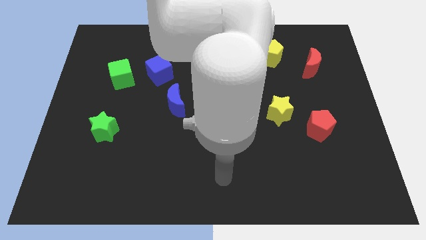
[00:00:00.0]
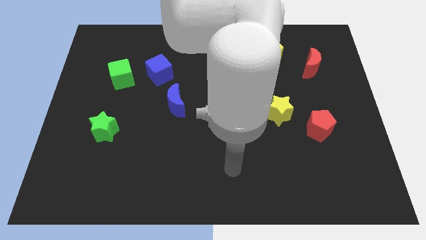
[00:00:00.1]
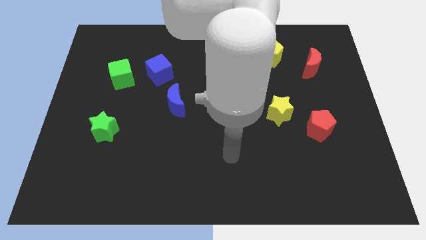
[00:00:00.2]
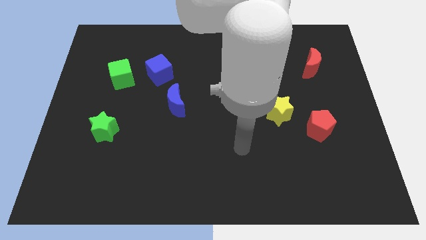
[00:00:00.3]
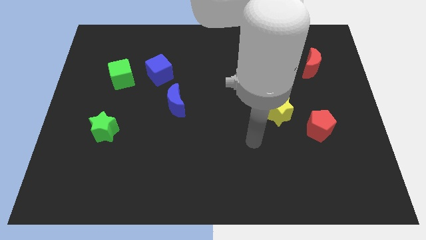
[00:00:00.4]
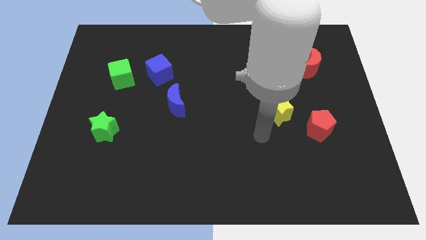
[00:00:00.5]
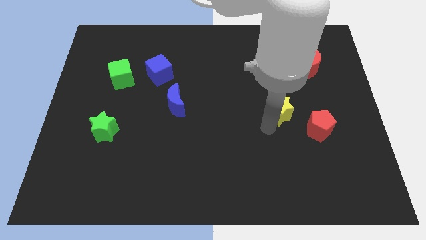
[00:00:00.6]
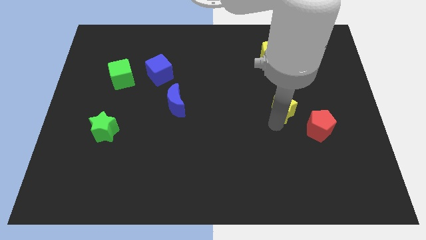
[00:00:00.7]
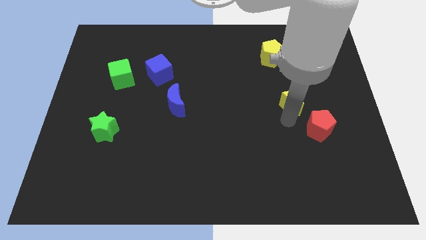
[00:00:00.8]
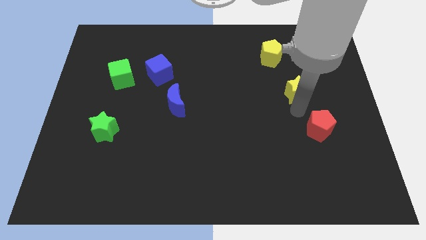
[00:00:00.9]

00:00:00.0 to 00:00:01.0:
pull the red pentagon apart from the yellow star

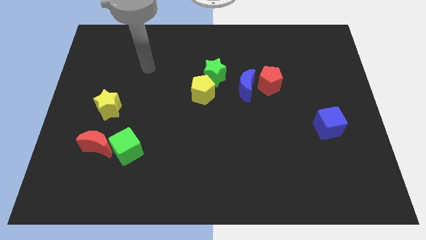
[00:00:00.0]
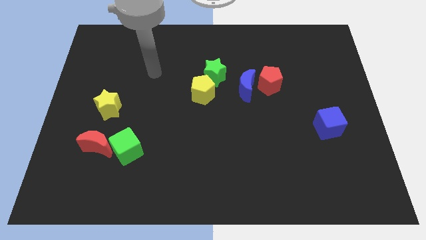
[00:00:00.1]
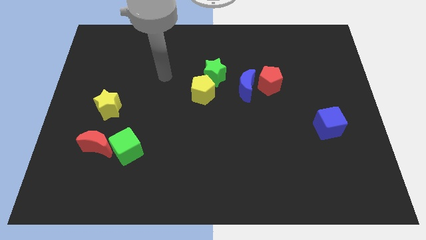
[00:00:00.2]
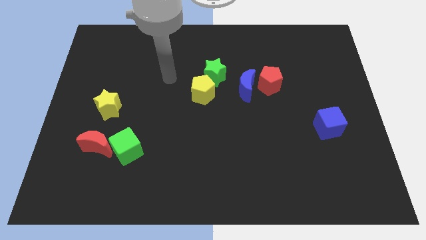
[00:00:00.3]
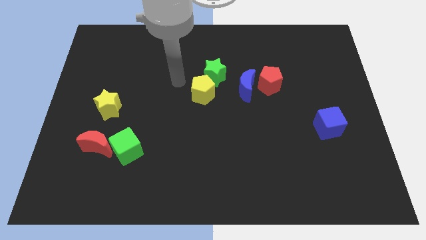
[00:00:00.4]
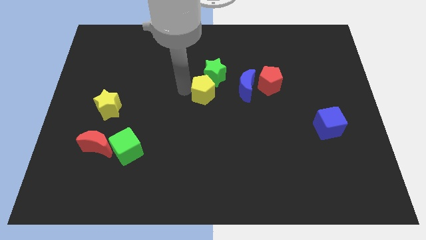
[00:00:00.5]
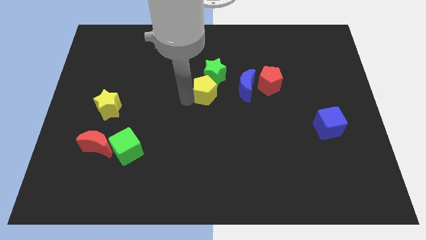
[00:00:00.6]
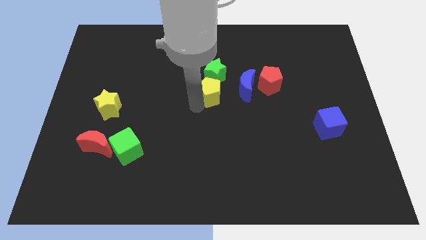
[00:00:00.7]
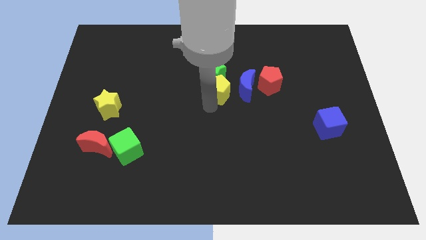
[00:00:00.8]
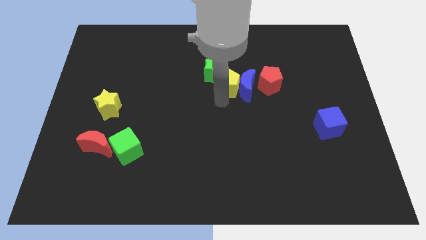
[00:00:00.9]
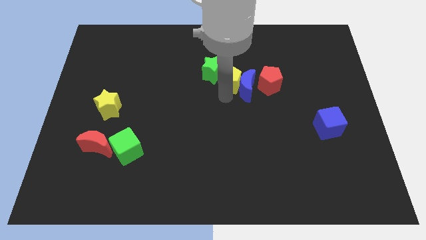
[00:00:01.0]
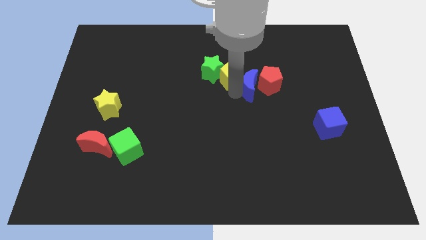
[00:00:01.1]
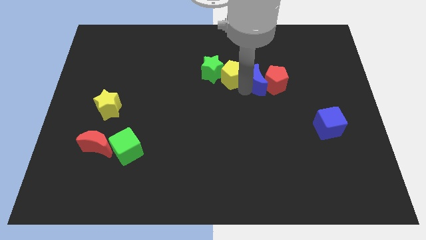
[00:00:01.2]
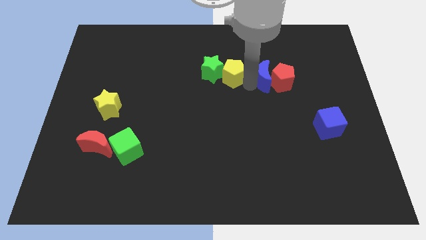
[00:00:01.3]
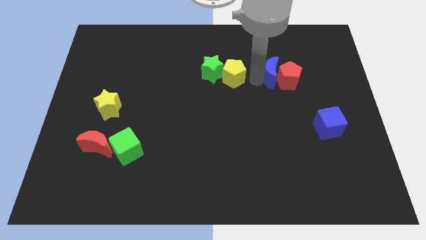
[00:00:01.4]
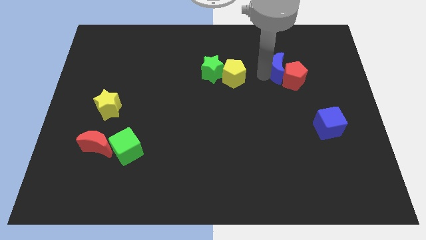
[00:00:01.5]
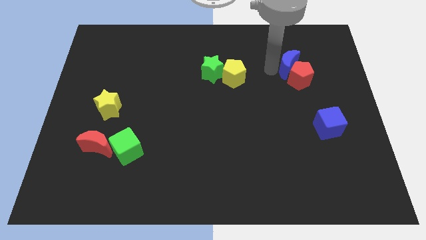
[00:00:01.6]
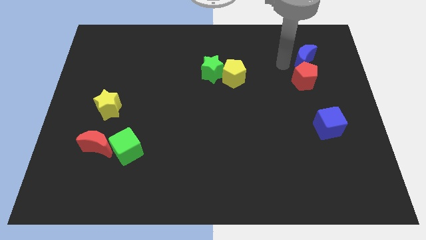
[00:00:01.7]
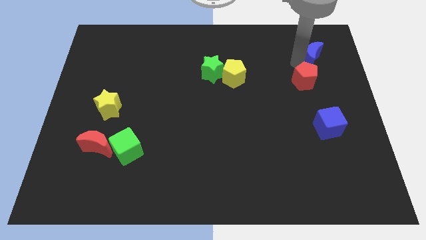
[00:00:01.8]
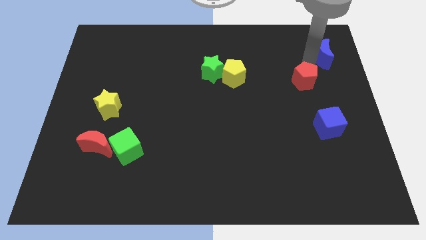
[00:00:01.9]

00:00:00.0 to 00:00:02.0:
move the red pentagon away from the blue moon

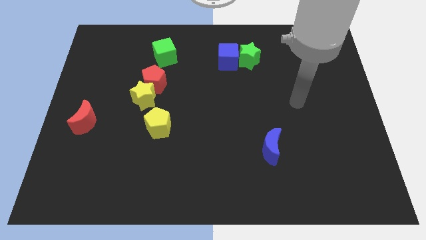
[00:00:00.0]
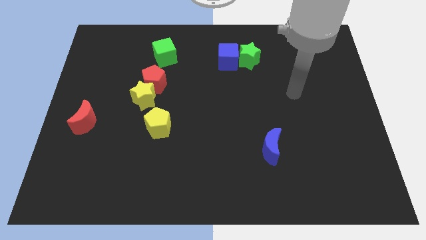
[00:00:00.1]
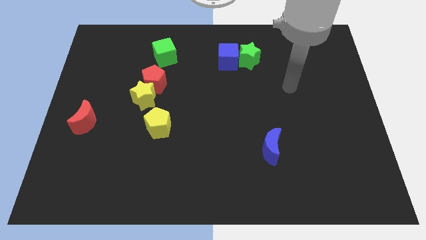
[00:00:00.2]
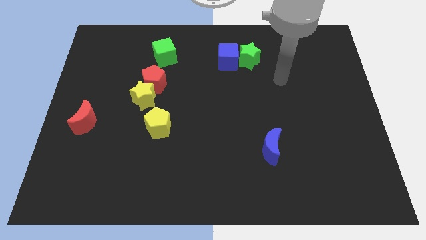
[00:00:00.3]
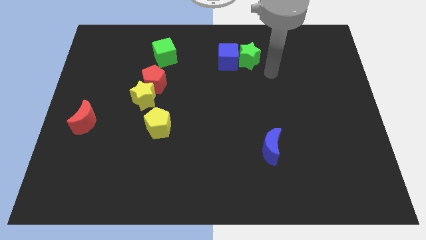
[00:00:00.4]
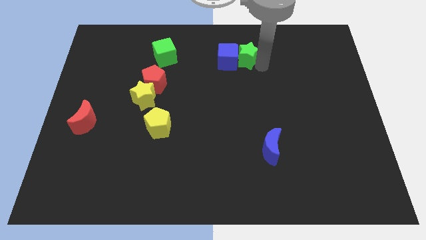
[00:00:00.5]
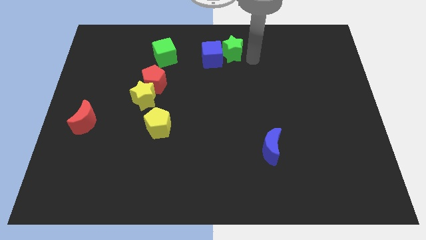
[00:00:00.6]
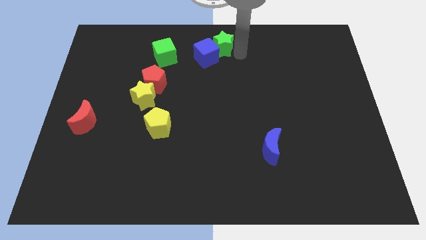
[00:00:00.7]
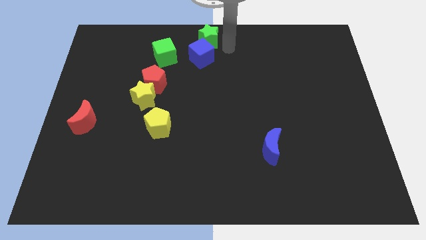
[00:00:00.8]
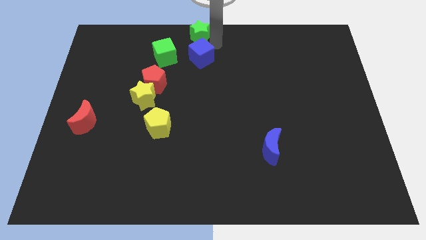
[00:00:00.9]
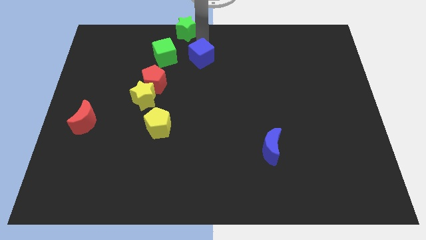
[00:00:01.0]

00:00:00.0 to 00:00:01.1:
separate the blue cube from the green star

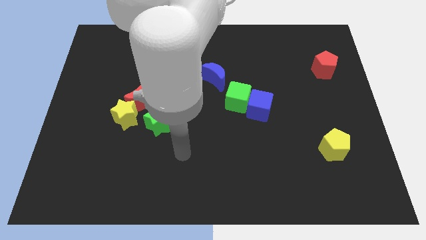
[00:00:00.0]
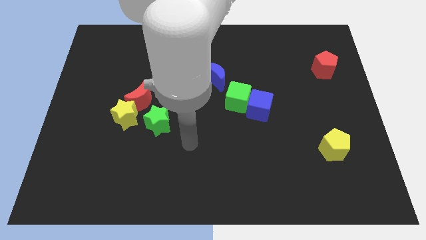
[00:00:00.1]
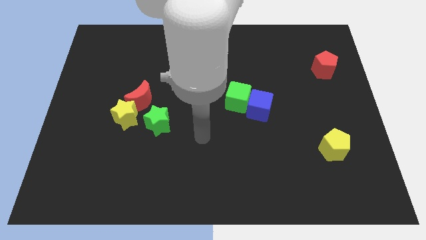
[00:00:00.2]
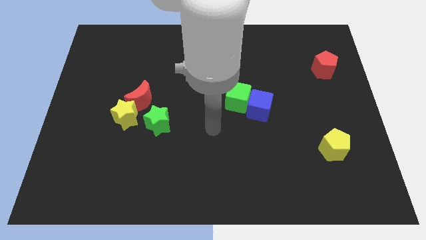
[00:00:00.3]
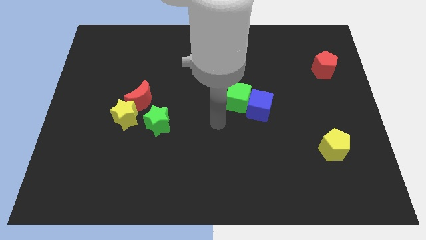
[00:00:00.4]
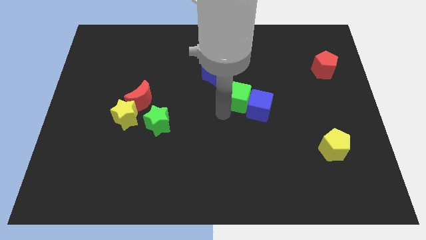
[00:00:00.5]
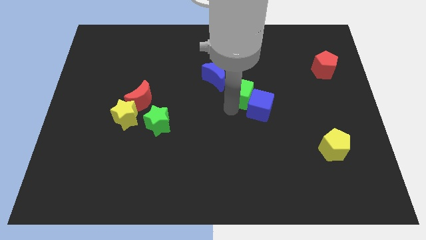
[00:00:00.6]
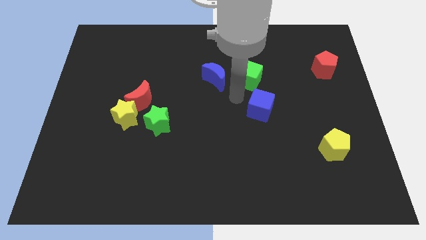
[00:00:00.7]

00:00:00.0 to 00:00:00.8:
move the blue cube away from the green cube

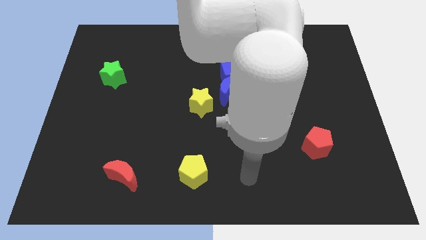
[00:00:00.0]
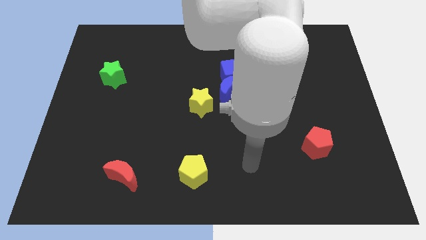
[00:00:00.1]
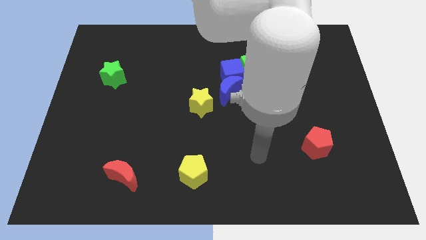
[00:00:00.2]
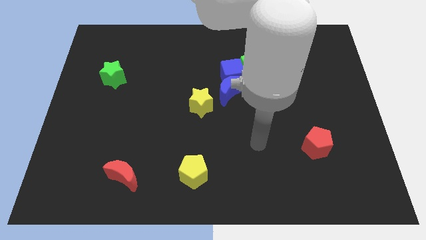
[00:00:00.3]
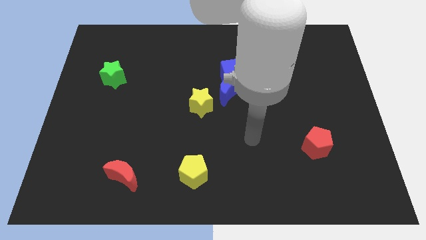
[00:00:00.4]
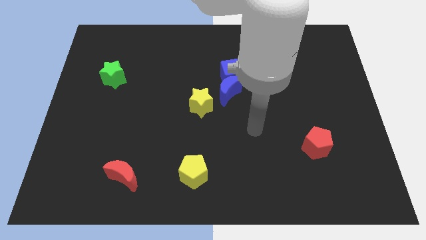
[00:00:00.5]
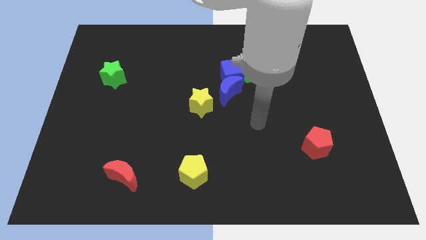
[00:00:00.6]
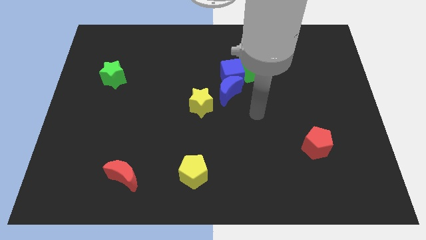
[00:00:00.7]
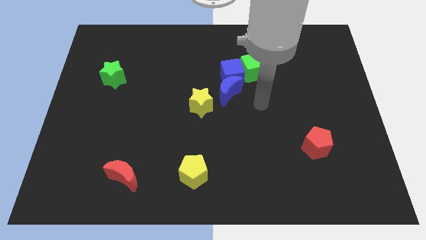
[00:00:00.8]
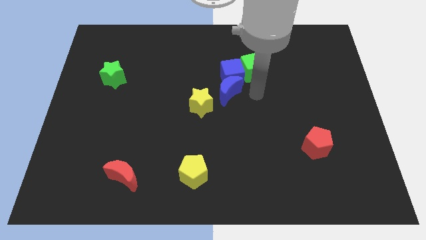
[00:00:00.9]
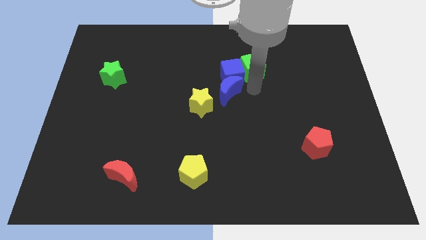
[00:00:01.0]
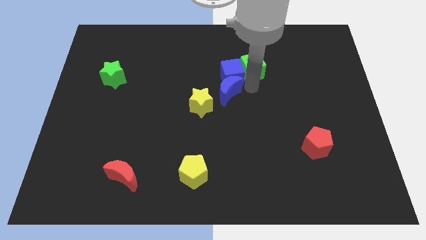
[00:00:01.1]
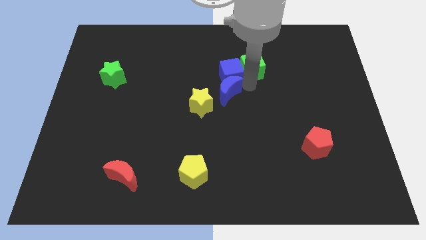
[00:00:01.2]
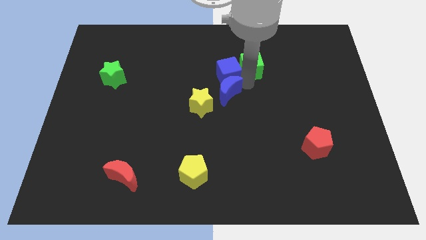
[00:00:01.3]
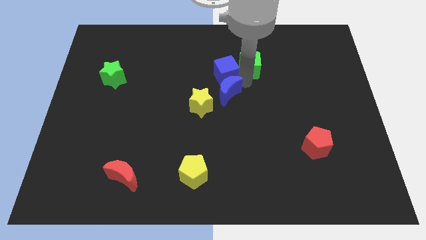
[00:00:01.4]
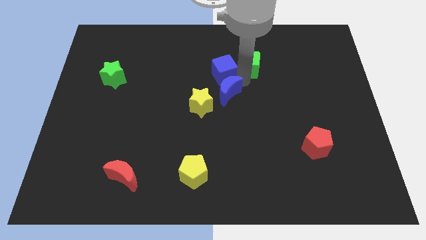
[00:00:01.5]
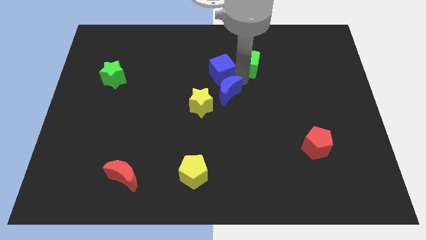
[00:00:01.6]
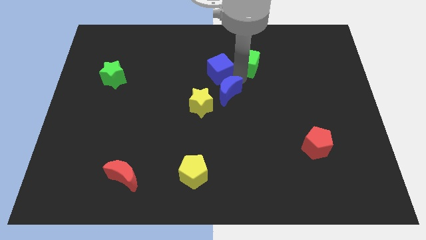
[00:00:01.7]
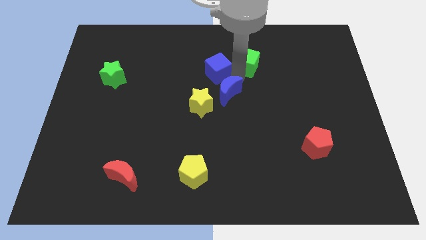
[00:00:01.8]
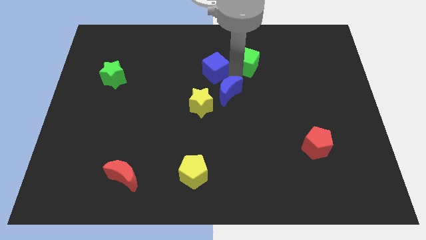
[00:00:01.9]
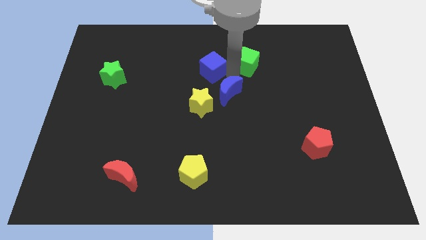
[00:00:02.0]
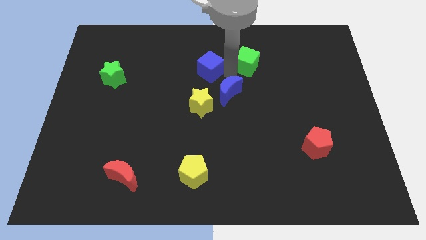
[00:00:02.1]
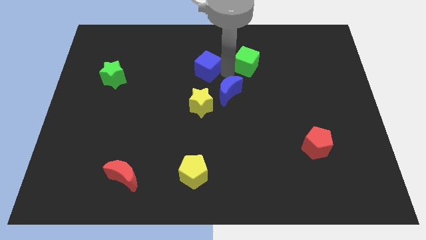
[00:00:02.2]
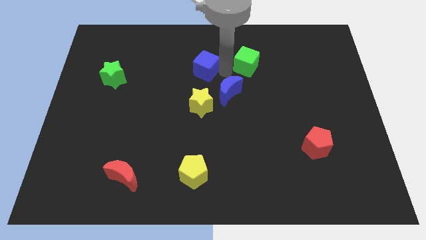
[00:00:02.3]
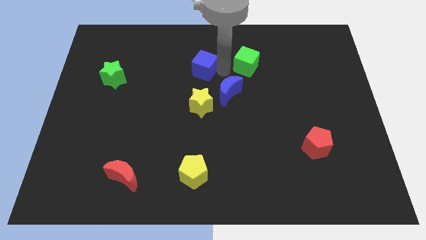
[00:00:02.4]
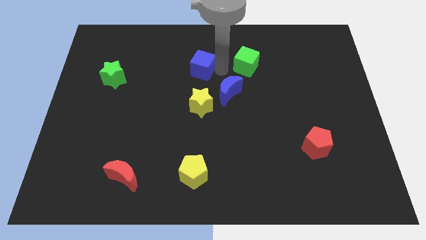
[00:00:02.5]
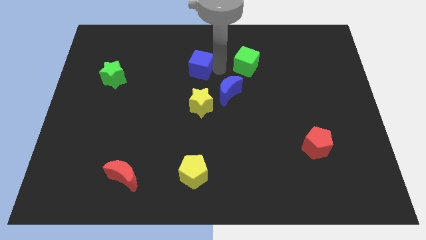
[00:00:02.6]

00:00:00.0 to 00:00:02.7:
move the blue cube away from the blue moon and green cube

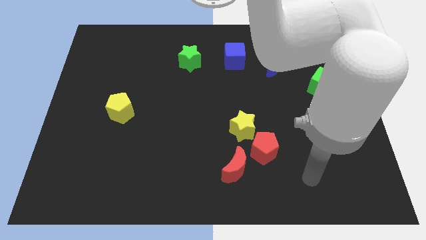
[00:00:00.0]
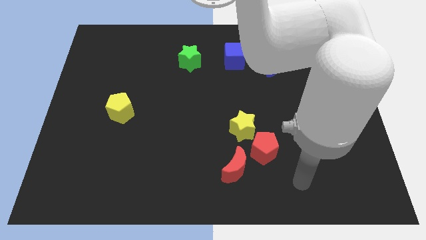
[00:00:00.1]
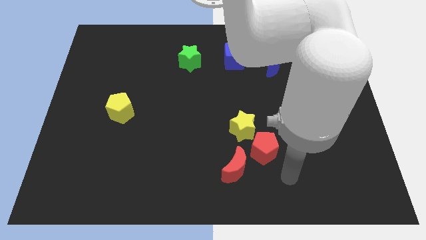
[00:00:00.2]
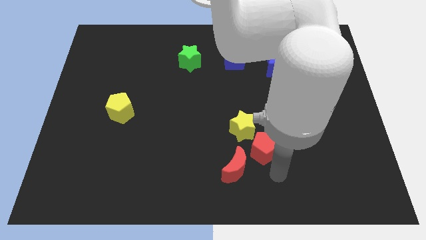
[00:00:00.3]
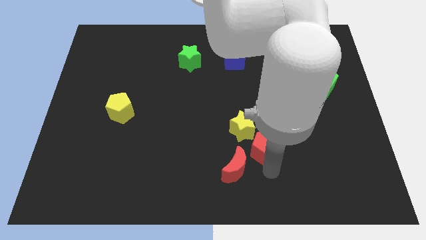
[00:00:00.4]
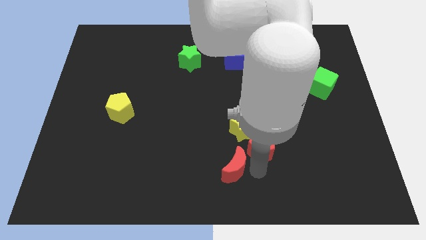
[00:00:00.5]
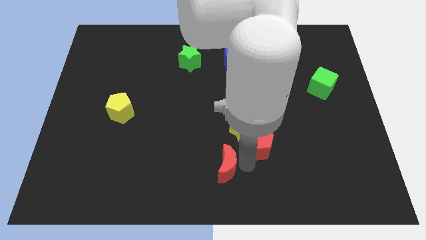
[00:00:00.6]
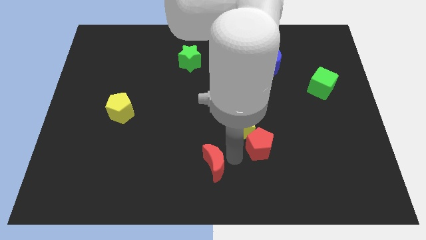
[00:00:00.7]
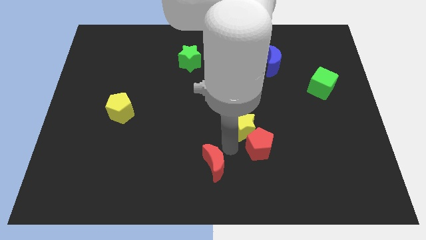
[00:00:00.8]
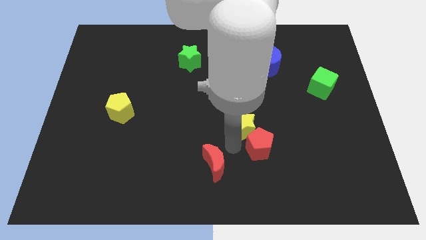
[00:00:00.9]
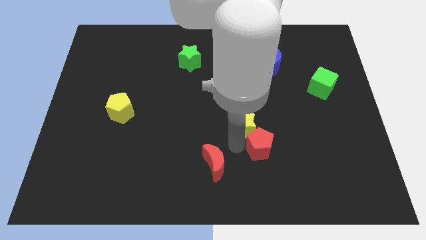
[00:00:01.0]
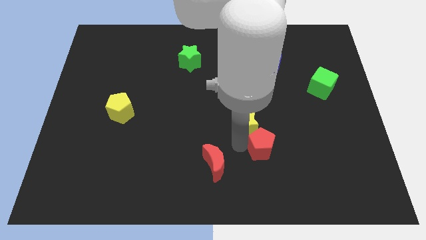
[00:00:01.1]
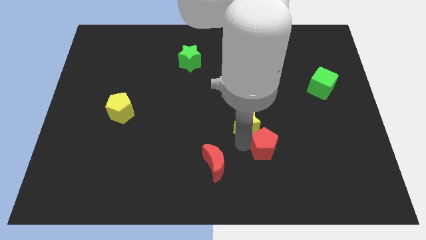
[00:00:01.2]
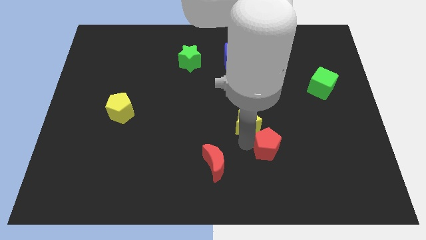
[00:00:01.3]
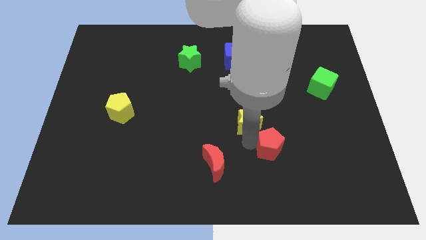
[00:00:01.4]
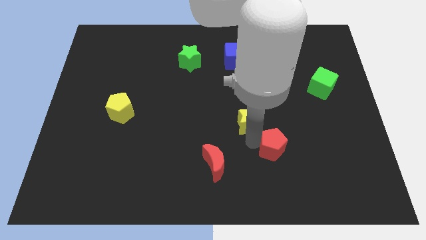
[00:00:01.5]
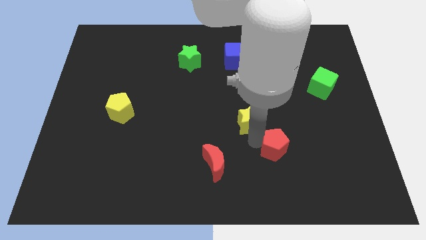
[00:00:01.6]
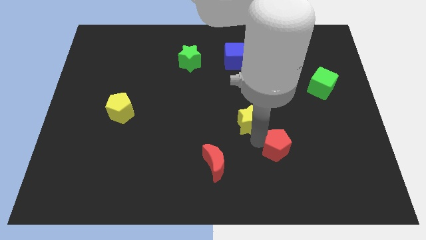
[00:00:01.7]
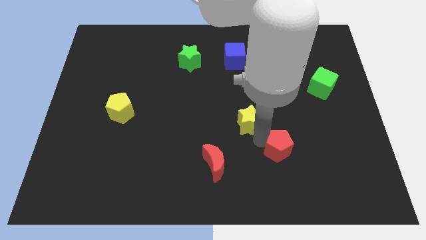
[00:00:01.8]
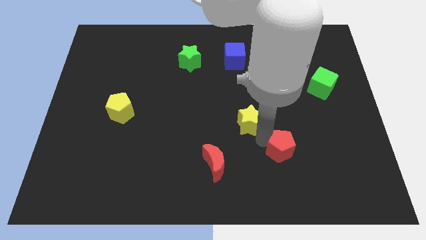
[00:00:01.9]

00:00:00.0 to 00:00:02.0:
separate the red pentagon from the yellow star and red moon
